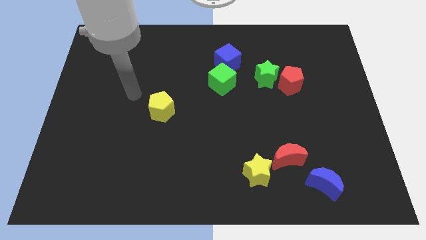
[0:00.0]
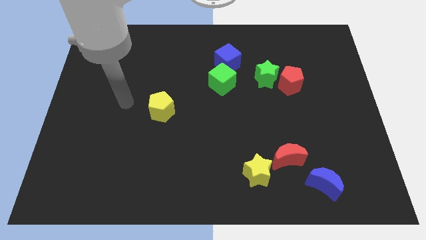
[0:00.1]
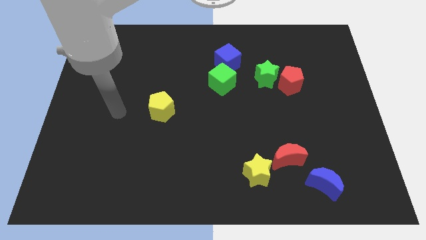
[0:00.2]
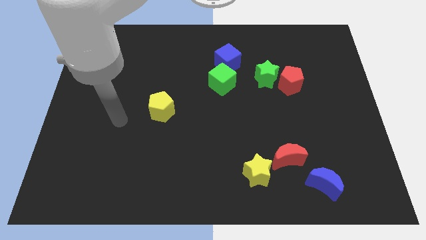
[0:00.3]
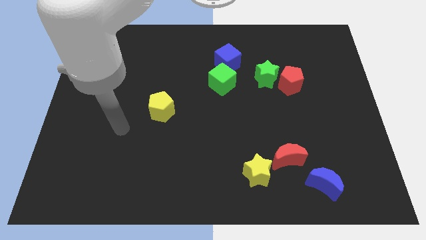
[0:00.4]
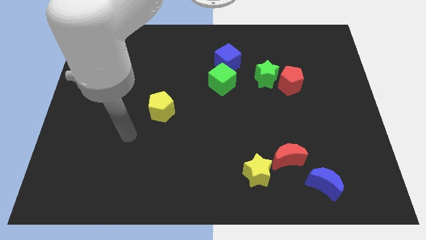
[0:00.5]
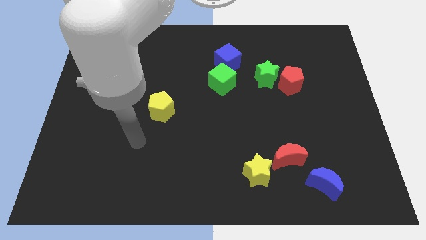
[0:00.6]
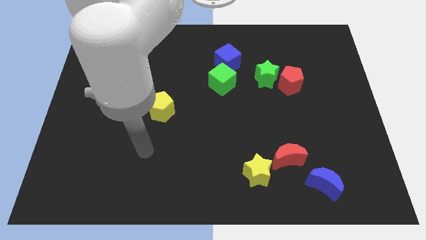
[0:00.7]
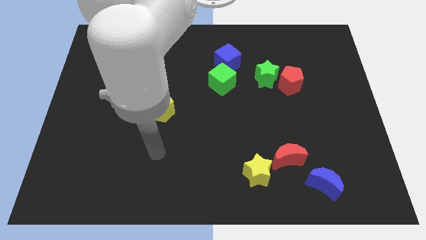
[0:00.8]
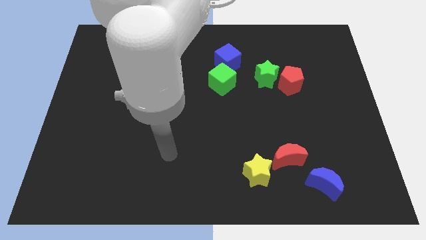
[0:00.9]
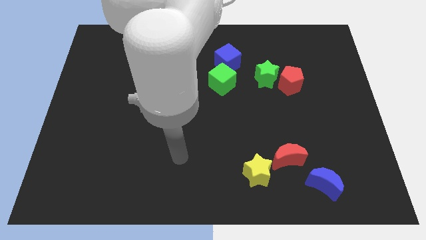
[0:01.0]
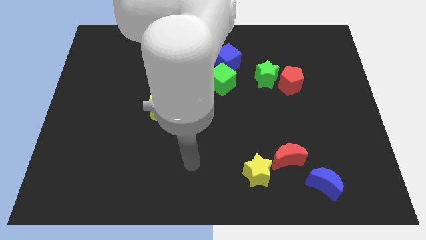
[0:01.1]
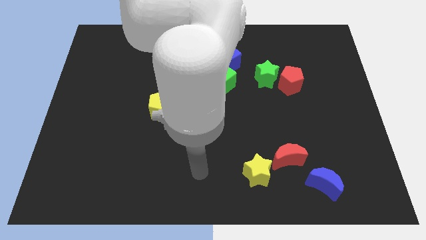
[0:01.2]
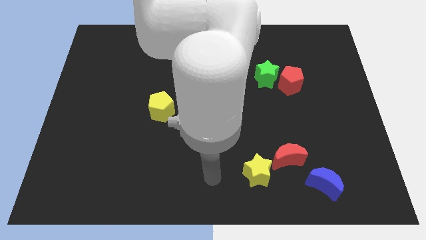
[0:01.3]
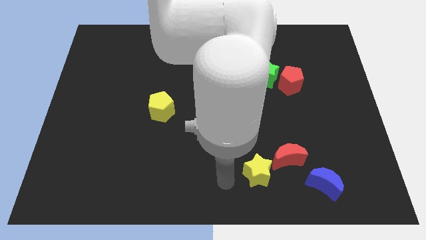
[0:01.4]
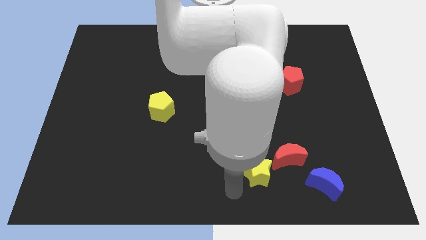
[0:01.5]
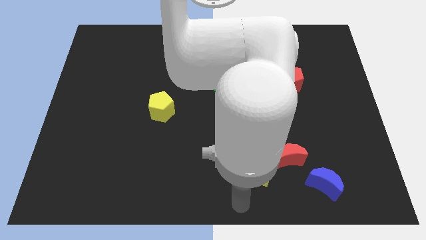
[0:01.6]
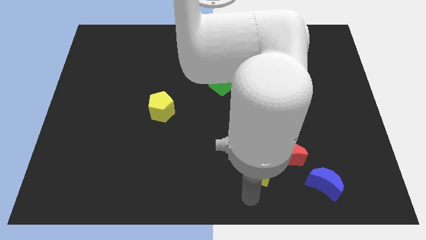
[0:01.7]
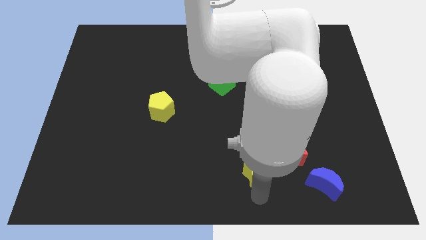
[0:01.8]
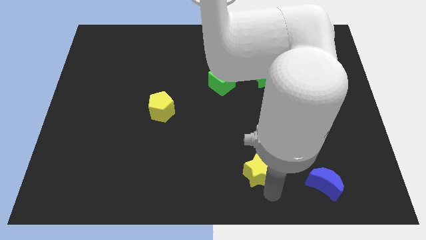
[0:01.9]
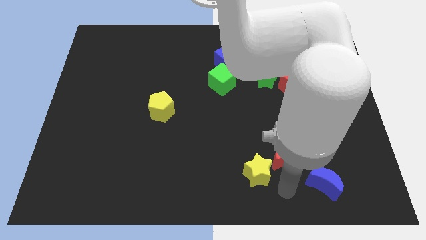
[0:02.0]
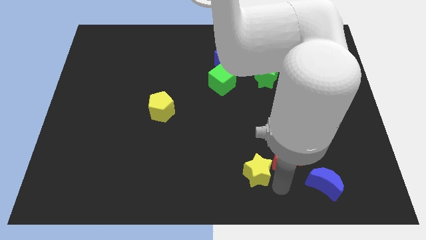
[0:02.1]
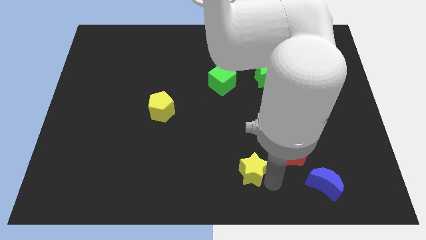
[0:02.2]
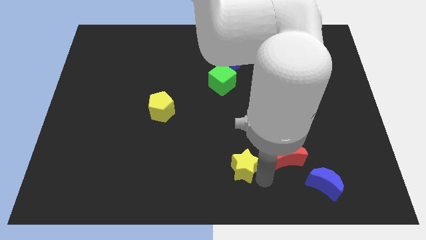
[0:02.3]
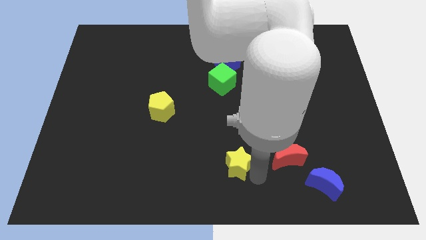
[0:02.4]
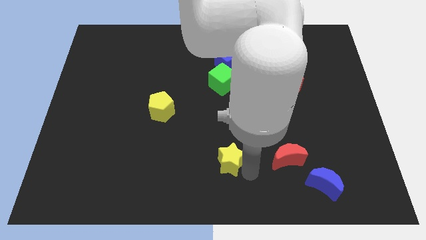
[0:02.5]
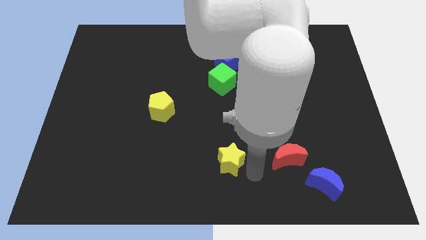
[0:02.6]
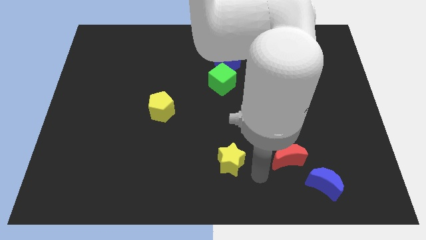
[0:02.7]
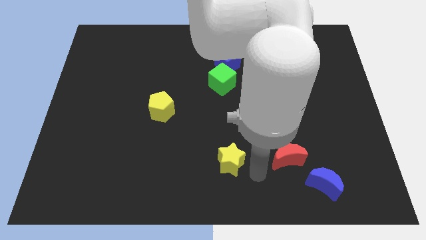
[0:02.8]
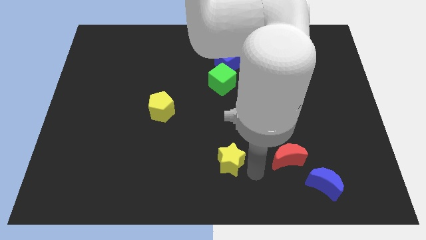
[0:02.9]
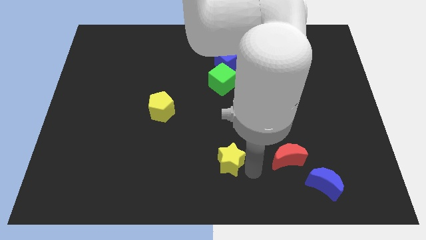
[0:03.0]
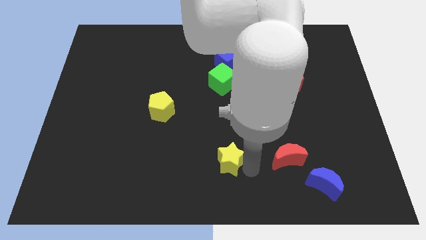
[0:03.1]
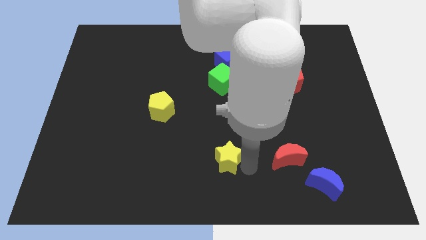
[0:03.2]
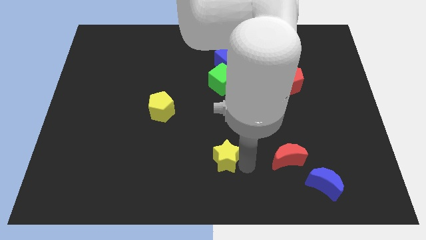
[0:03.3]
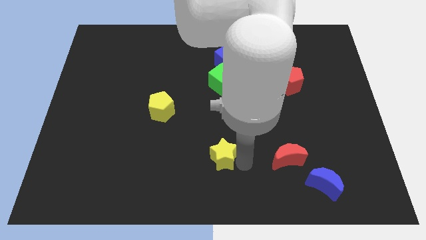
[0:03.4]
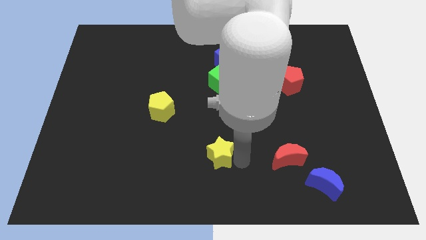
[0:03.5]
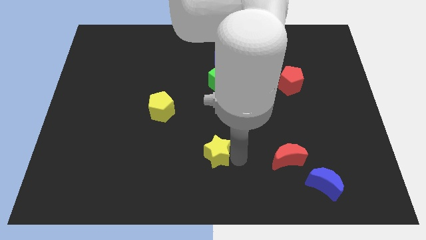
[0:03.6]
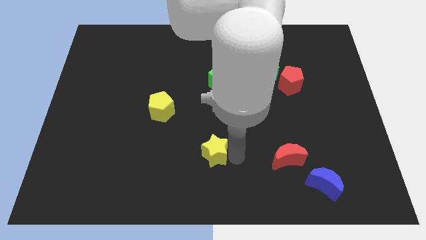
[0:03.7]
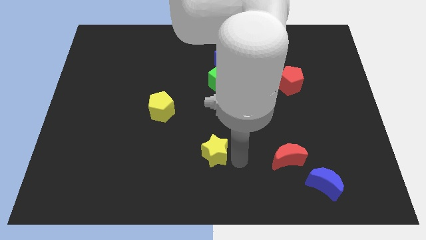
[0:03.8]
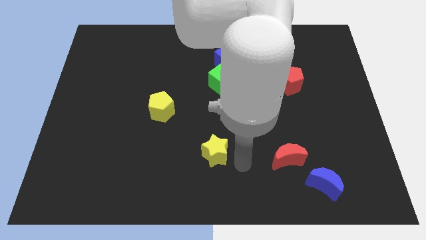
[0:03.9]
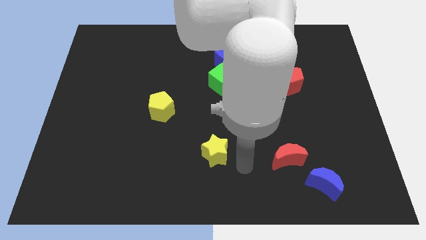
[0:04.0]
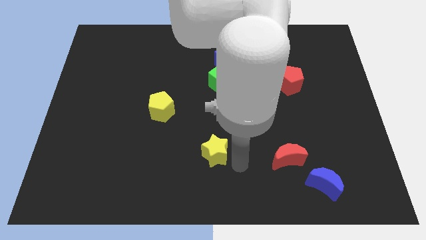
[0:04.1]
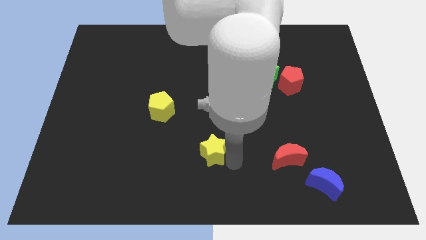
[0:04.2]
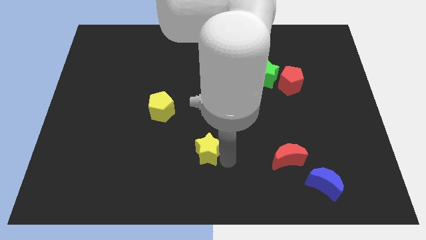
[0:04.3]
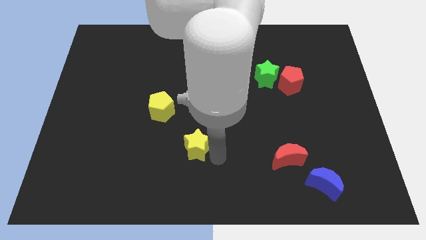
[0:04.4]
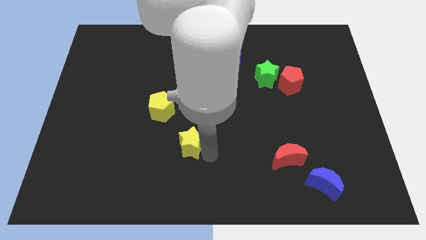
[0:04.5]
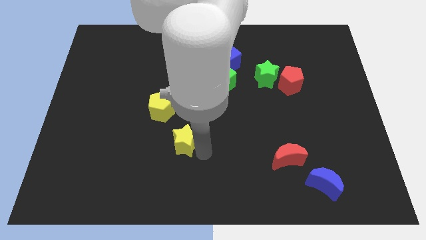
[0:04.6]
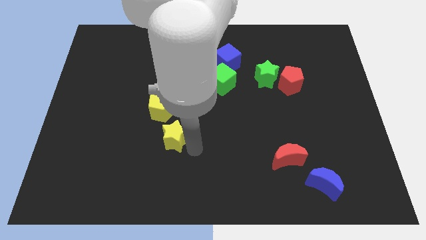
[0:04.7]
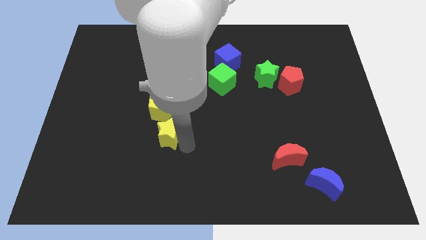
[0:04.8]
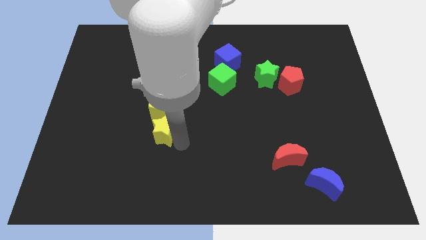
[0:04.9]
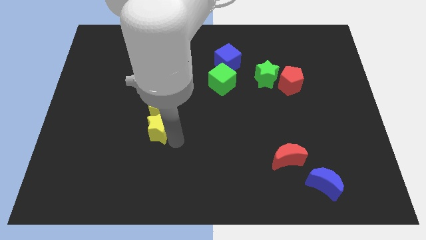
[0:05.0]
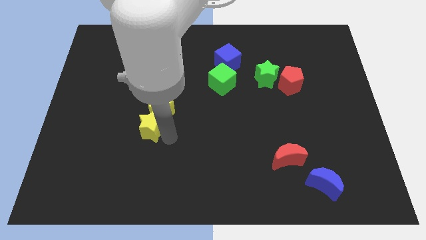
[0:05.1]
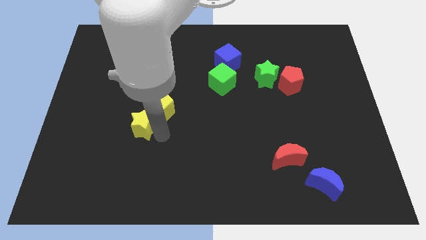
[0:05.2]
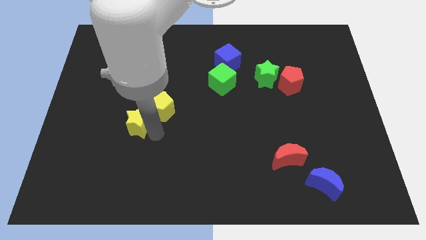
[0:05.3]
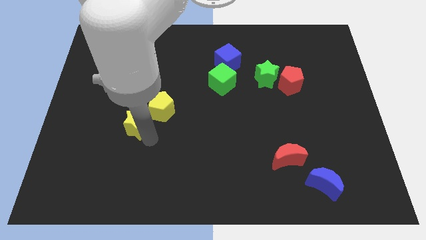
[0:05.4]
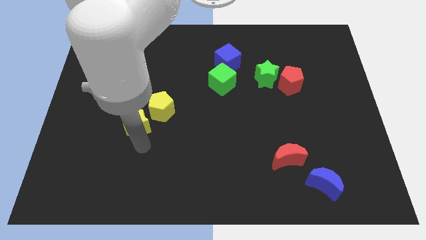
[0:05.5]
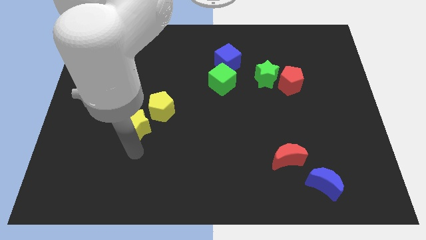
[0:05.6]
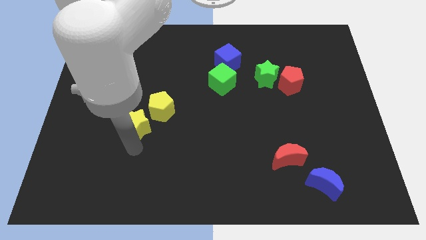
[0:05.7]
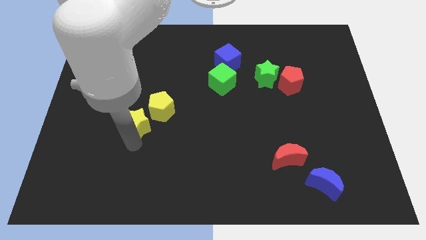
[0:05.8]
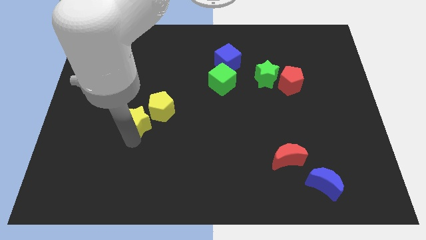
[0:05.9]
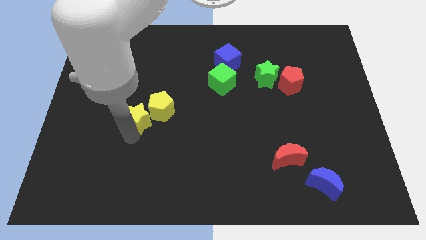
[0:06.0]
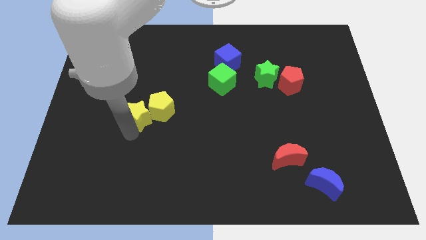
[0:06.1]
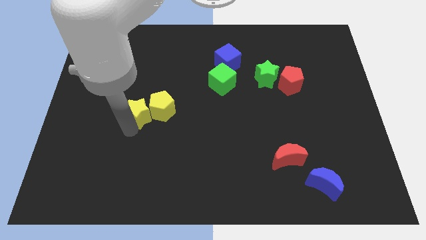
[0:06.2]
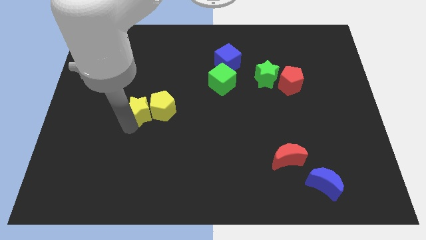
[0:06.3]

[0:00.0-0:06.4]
push the yellow star to the top left of the yellow pentagon

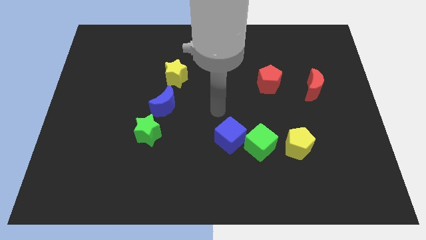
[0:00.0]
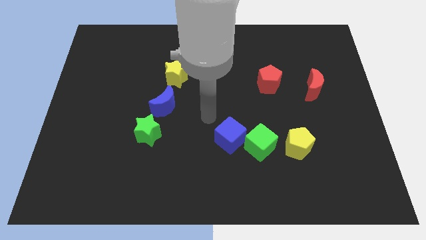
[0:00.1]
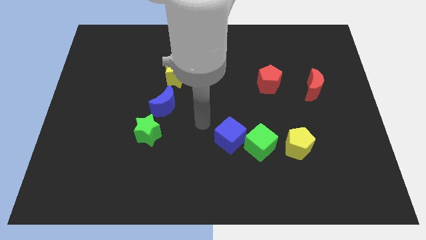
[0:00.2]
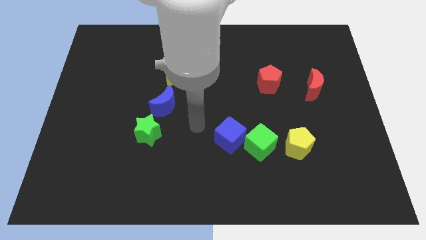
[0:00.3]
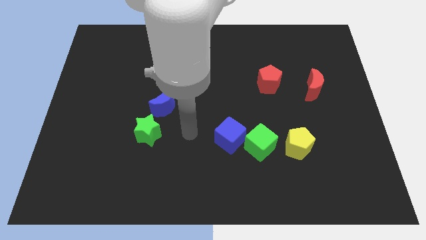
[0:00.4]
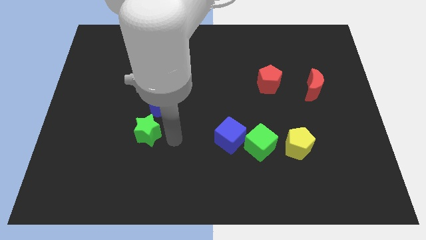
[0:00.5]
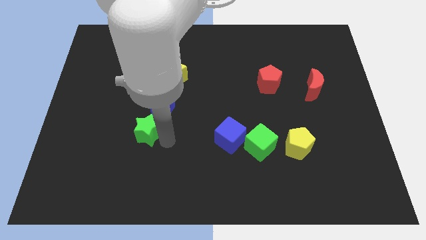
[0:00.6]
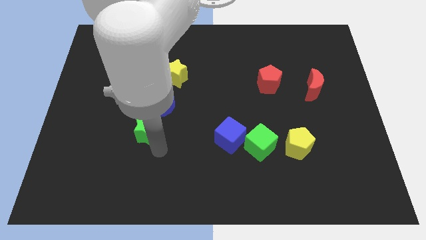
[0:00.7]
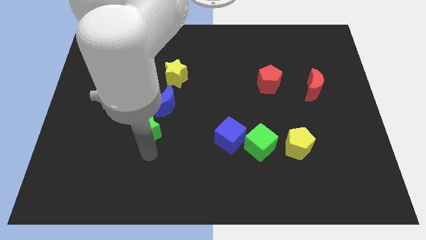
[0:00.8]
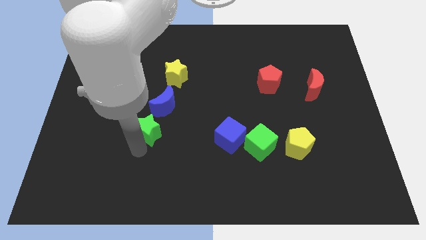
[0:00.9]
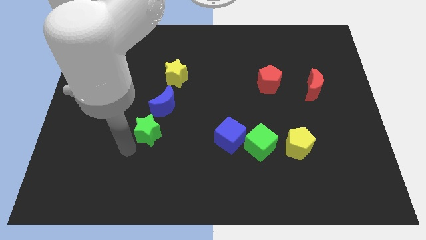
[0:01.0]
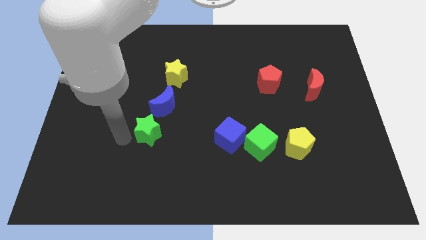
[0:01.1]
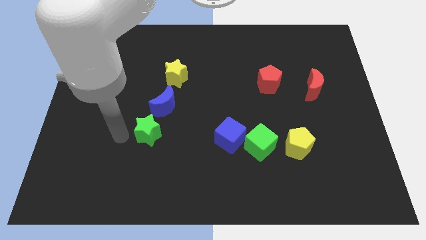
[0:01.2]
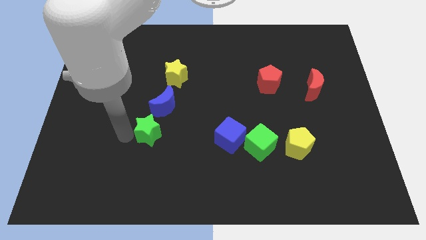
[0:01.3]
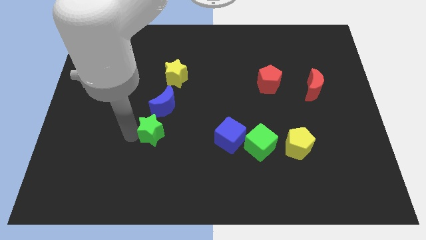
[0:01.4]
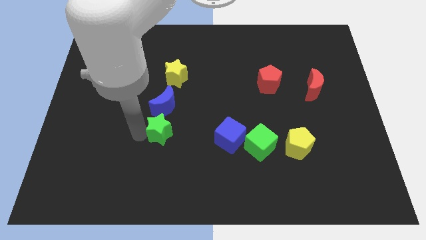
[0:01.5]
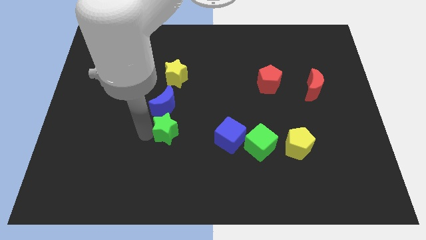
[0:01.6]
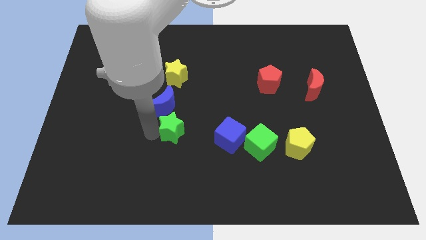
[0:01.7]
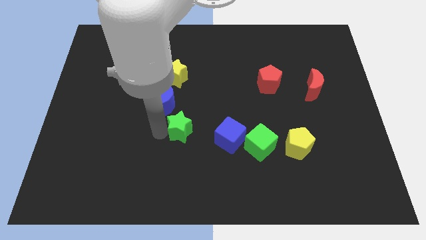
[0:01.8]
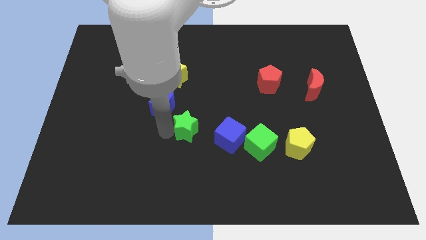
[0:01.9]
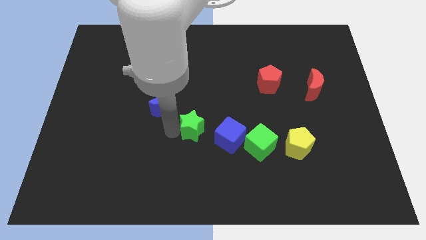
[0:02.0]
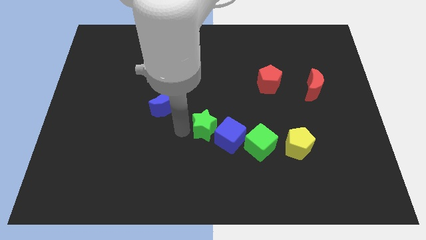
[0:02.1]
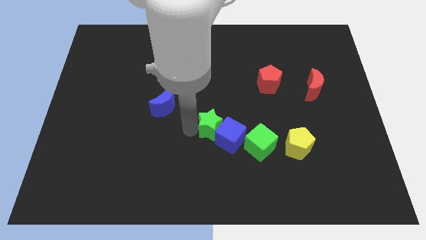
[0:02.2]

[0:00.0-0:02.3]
slide the green star to the top left side of the green cube
